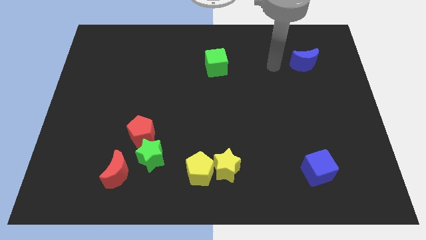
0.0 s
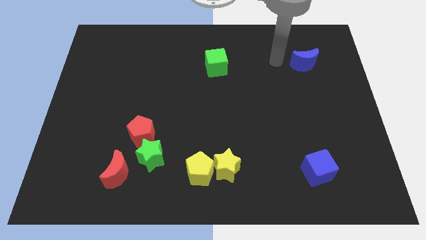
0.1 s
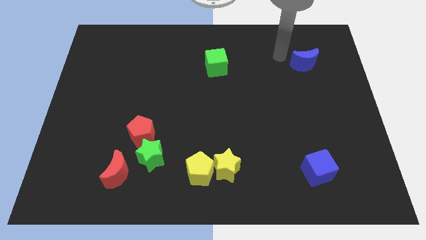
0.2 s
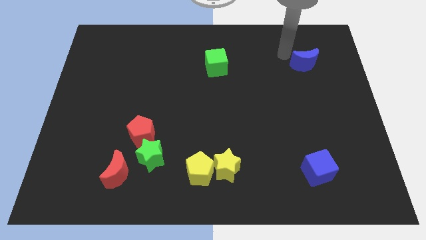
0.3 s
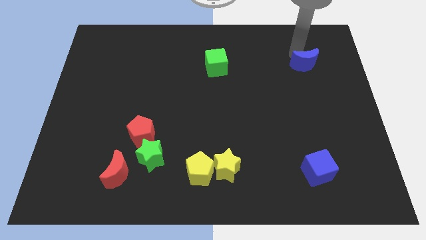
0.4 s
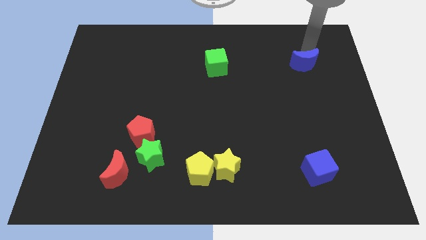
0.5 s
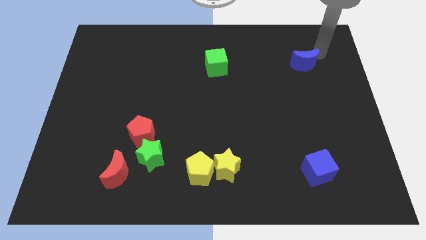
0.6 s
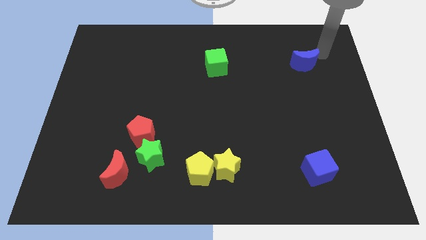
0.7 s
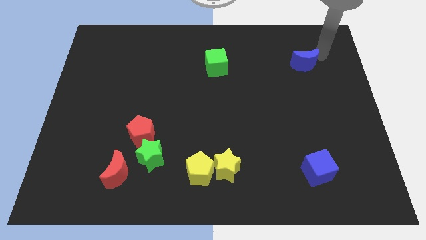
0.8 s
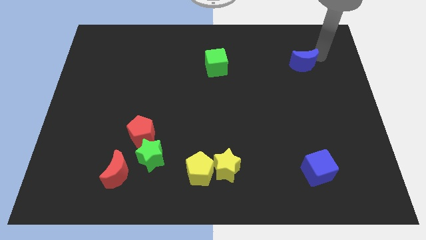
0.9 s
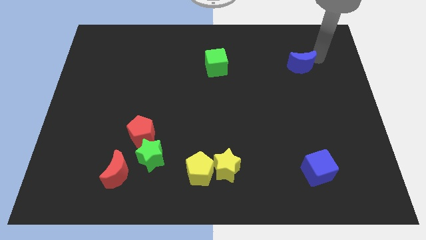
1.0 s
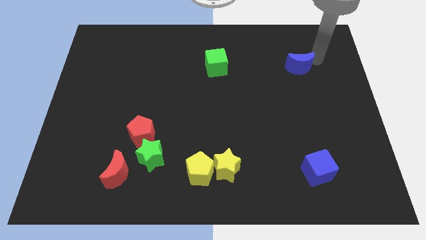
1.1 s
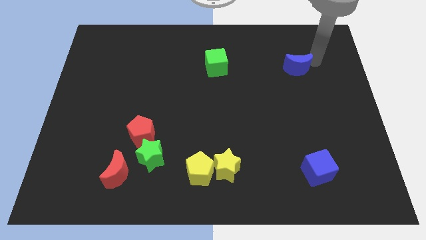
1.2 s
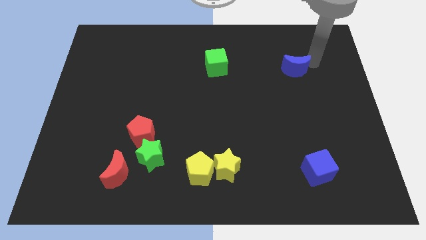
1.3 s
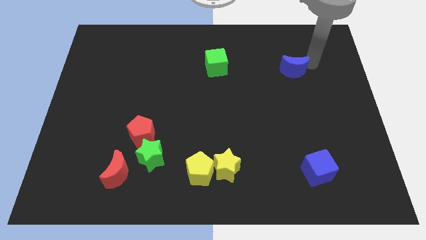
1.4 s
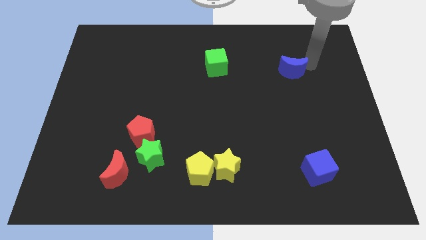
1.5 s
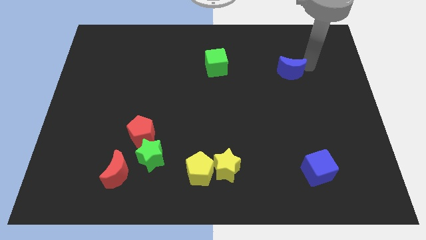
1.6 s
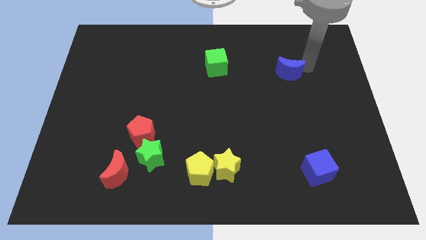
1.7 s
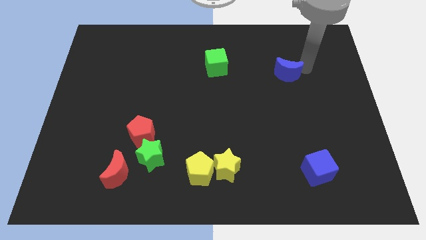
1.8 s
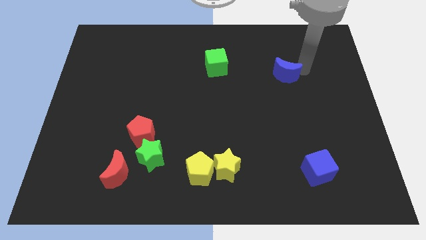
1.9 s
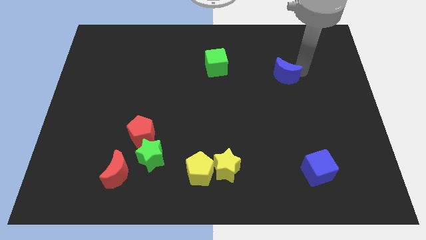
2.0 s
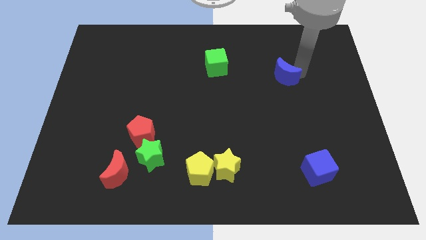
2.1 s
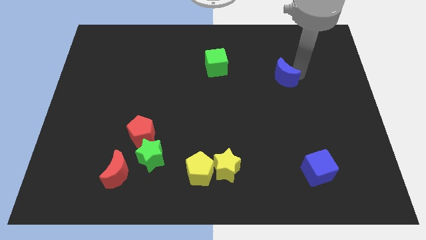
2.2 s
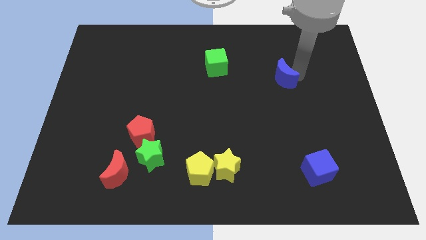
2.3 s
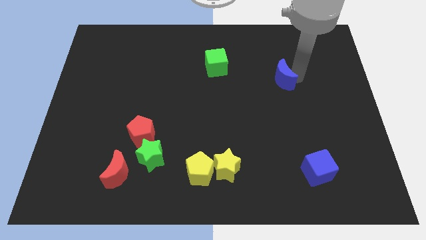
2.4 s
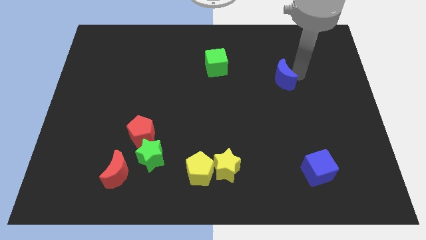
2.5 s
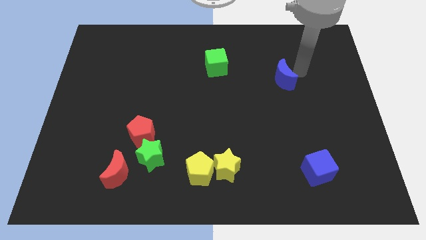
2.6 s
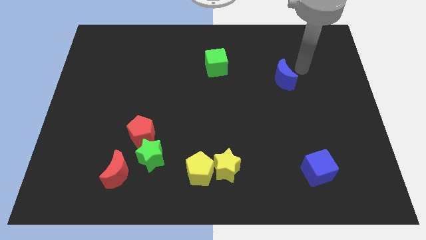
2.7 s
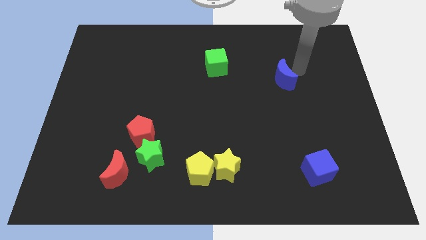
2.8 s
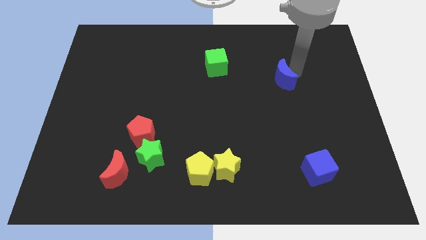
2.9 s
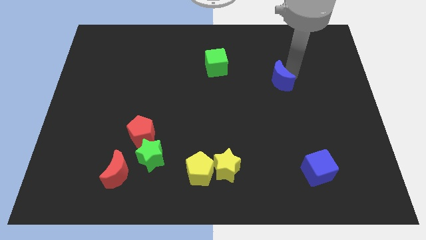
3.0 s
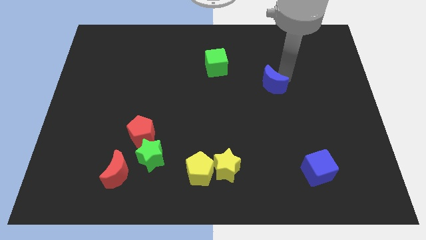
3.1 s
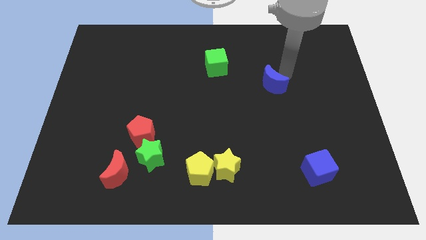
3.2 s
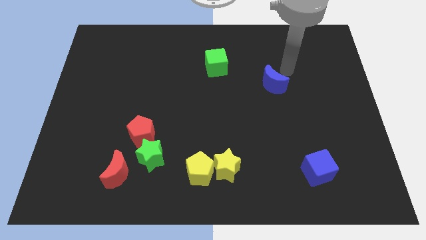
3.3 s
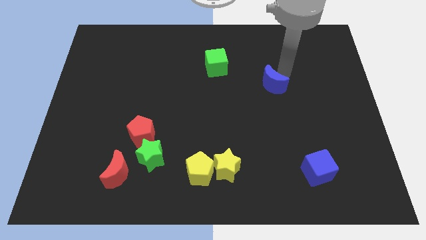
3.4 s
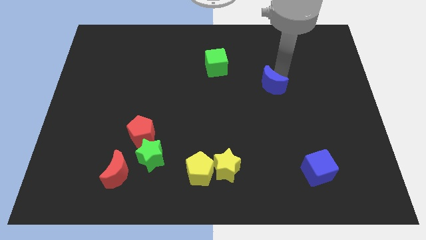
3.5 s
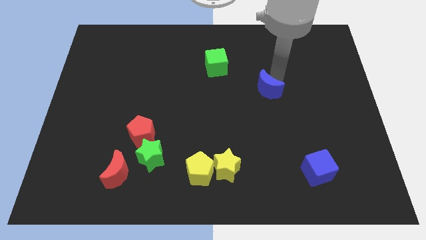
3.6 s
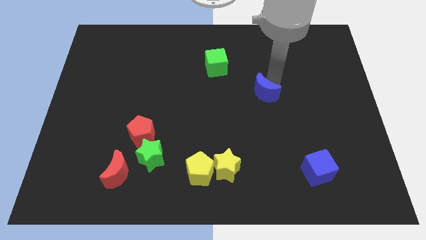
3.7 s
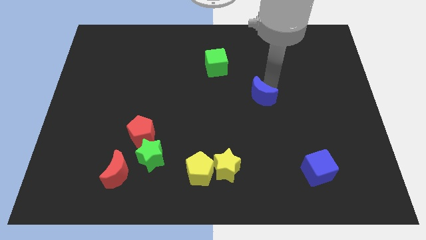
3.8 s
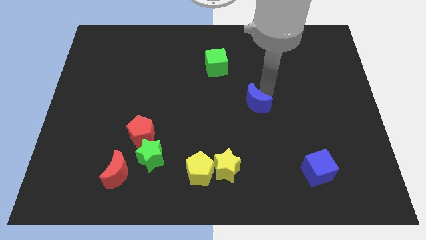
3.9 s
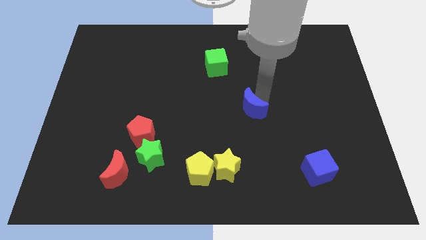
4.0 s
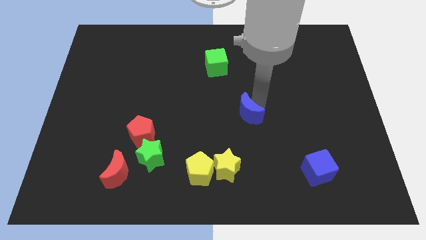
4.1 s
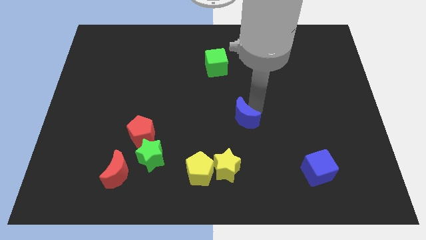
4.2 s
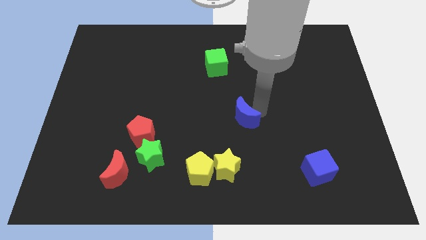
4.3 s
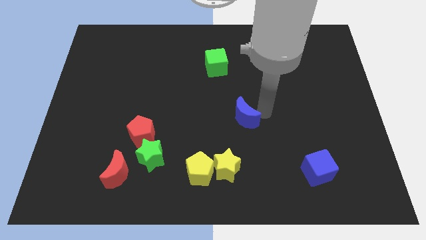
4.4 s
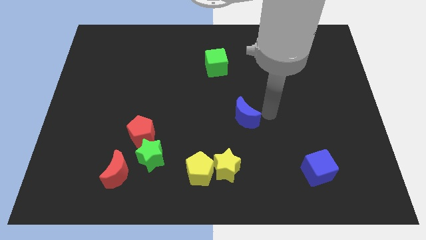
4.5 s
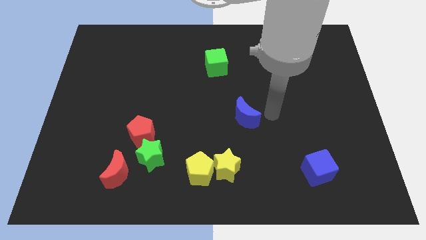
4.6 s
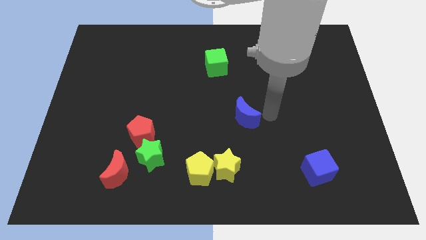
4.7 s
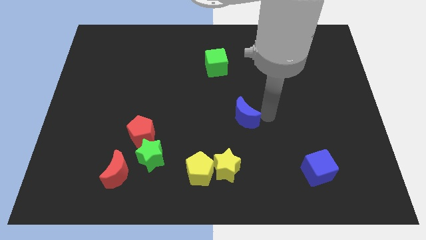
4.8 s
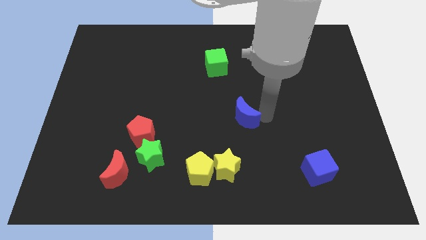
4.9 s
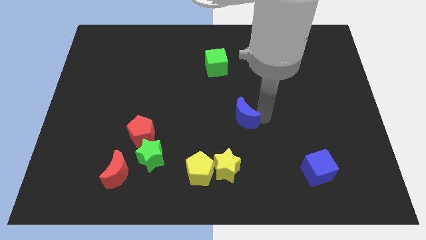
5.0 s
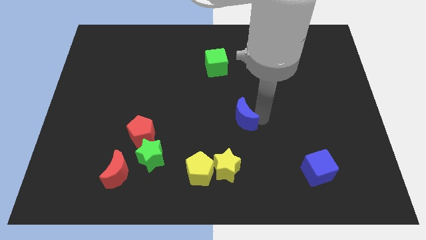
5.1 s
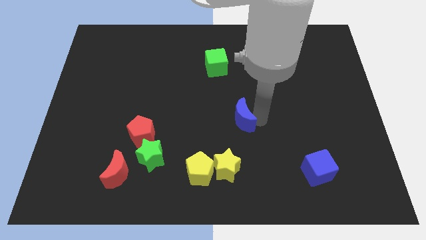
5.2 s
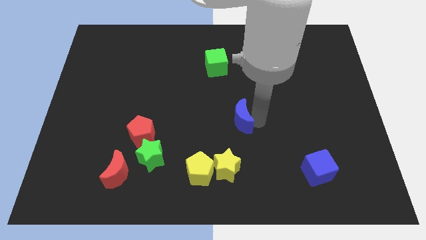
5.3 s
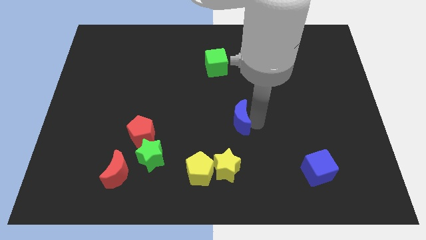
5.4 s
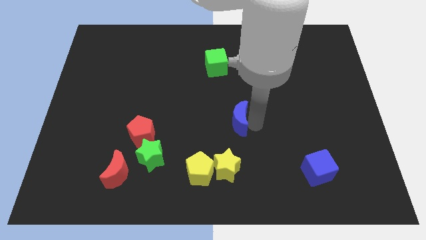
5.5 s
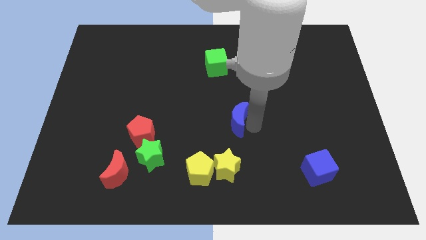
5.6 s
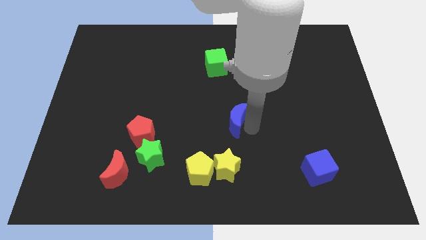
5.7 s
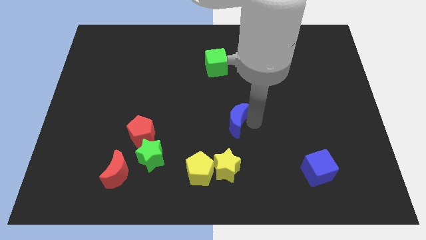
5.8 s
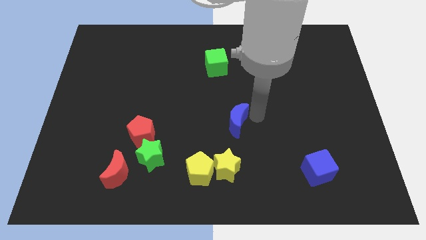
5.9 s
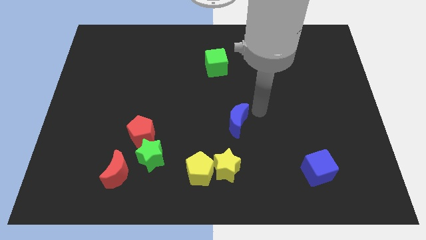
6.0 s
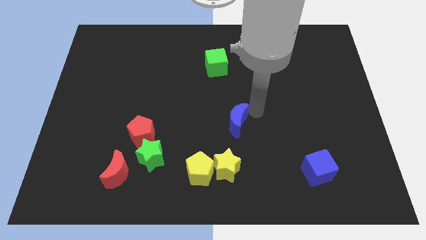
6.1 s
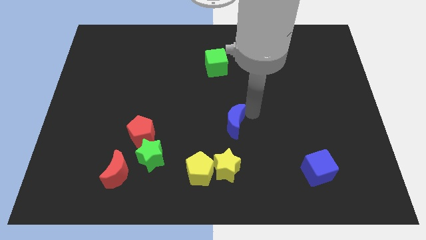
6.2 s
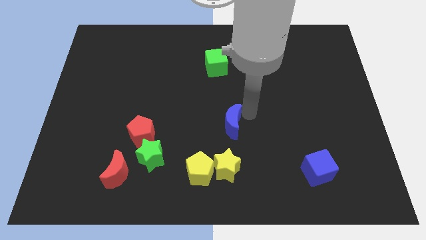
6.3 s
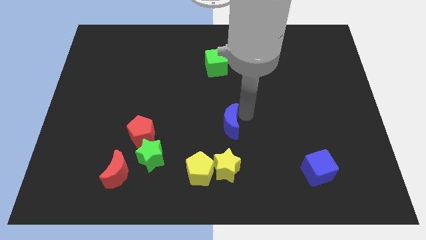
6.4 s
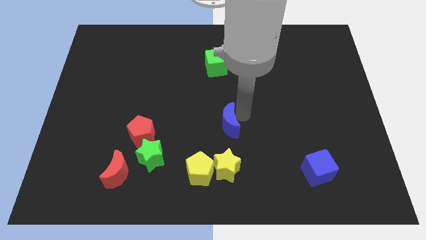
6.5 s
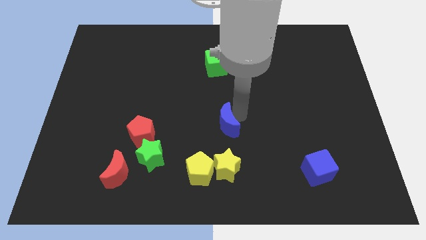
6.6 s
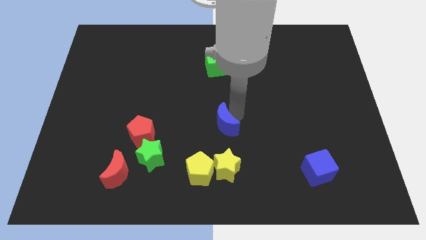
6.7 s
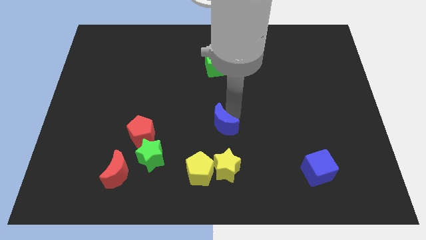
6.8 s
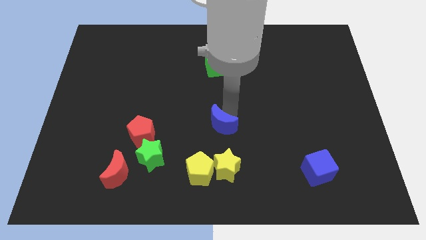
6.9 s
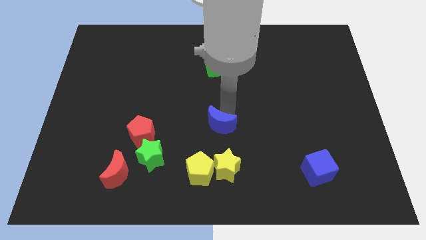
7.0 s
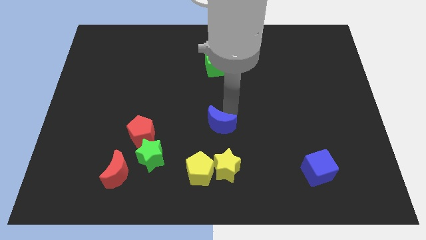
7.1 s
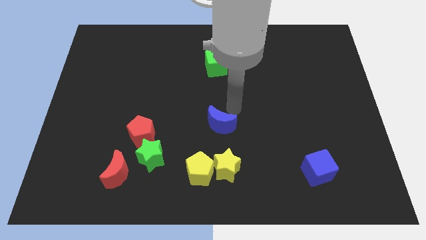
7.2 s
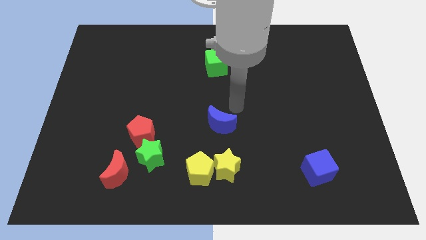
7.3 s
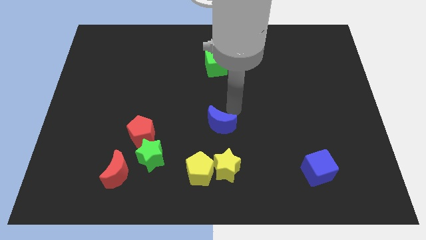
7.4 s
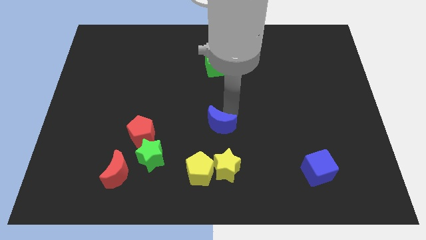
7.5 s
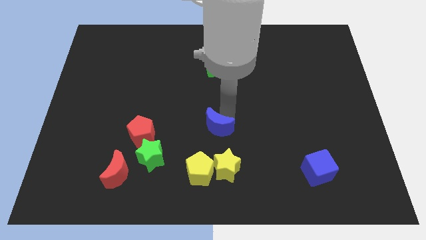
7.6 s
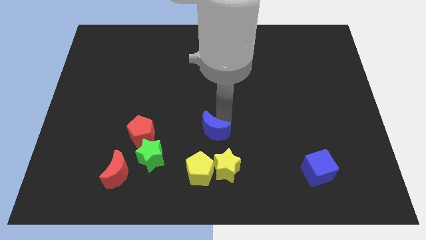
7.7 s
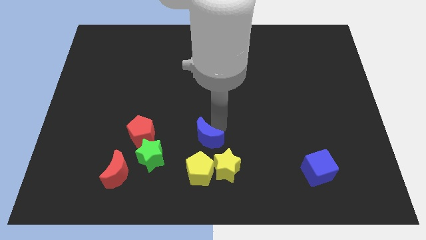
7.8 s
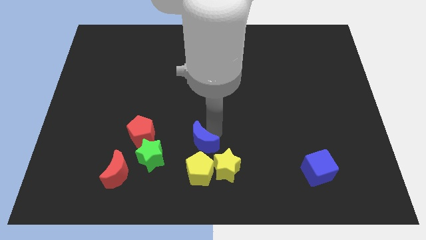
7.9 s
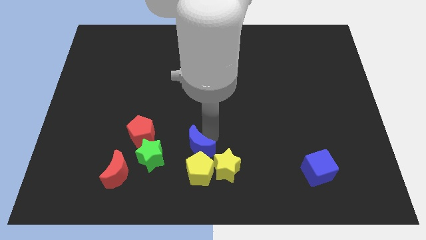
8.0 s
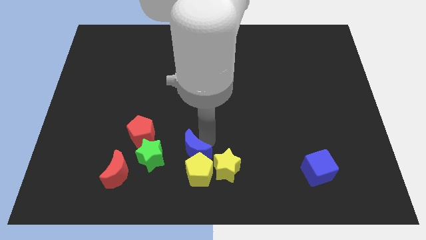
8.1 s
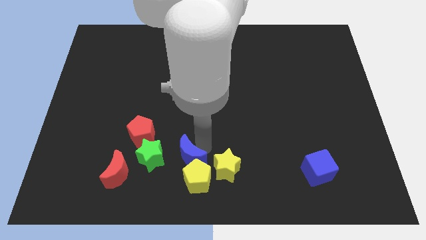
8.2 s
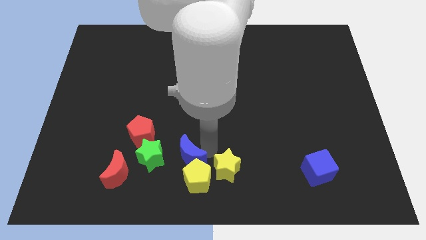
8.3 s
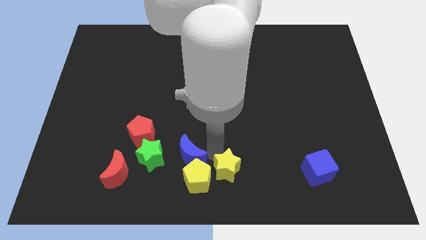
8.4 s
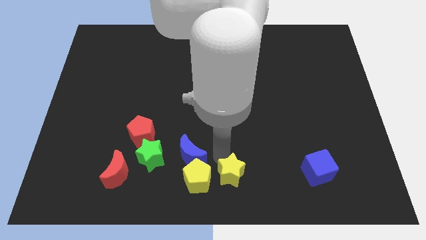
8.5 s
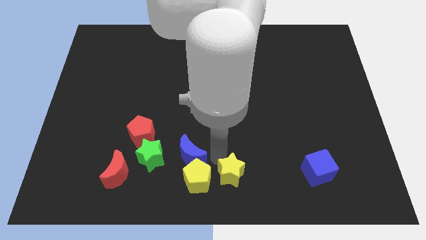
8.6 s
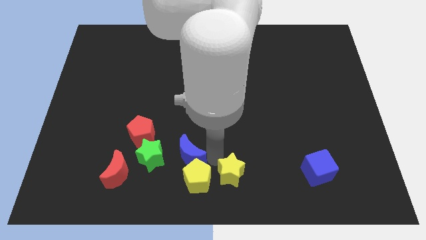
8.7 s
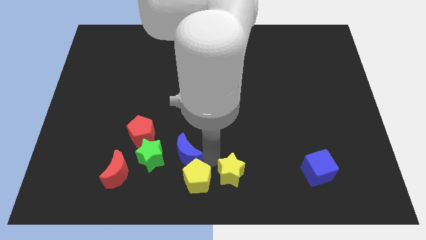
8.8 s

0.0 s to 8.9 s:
slide the blue moon diagonally down and to the right of the red pentagon
